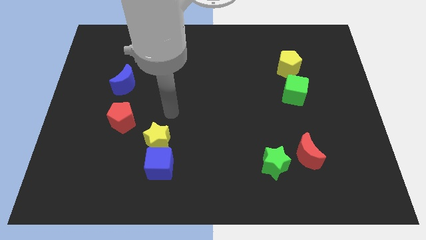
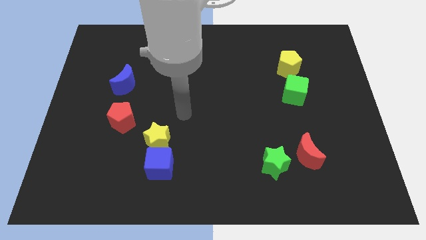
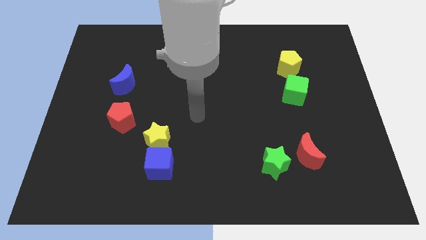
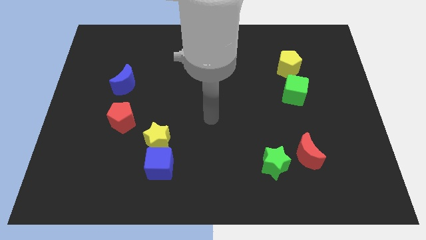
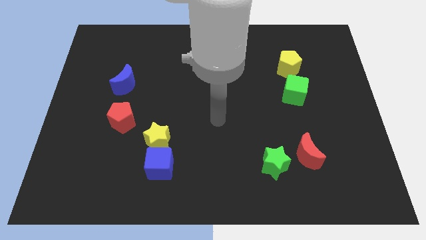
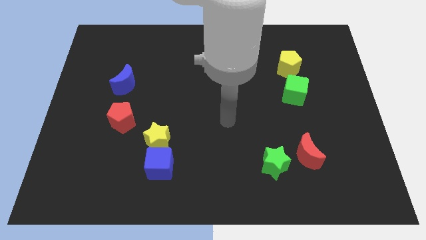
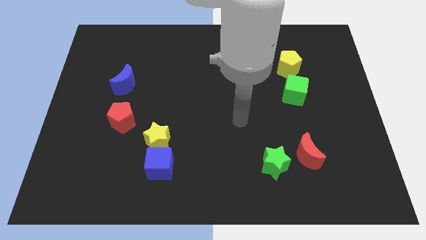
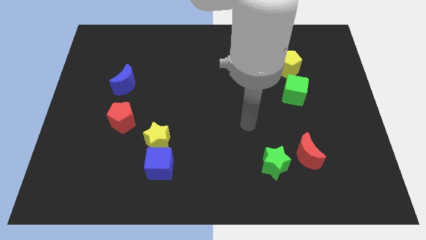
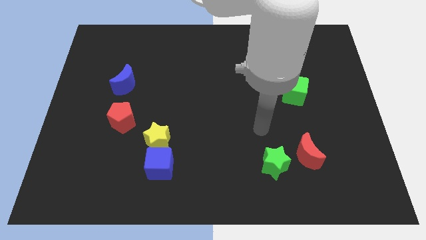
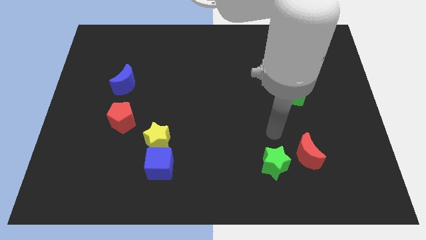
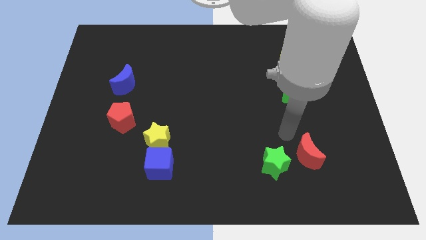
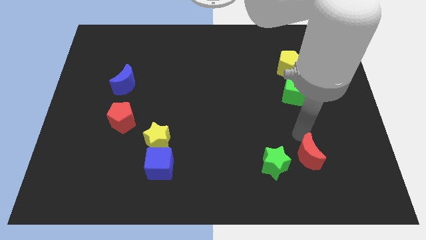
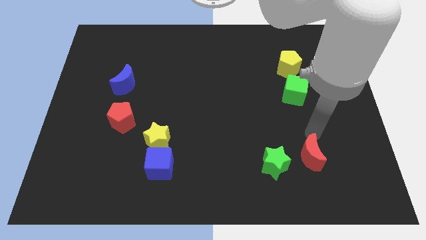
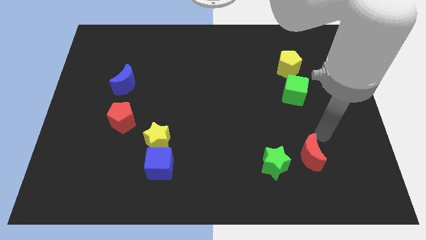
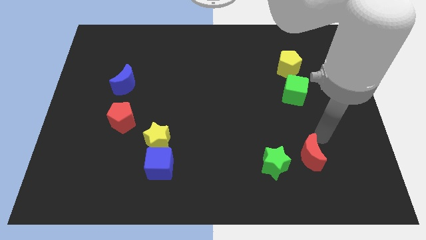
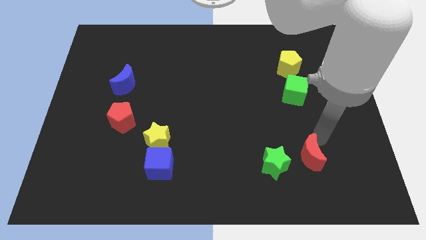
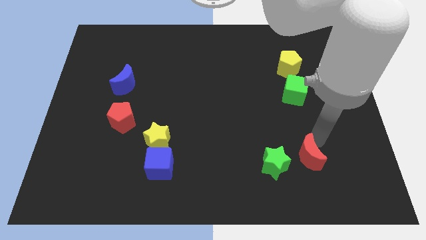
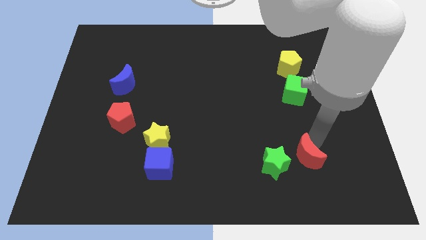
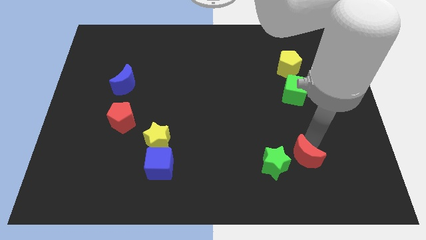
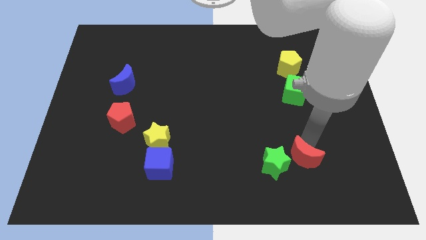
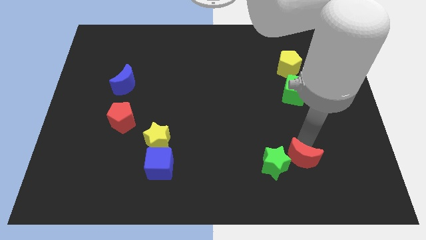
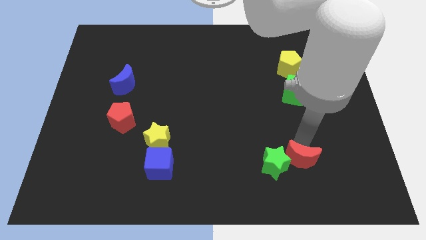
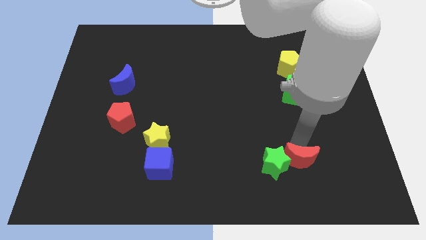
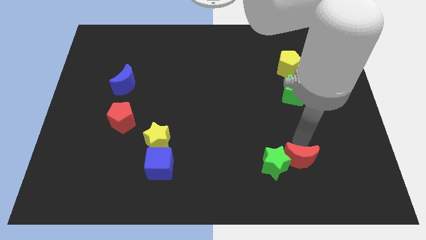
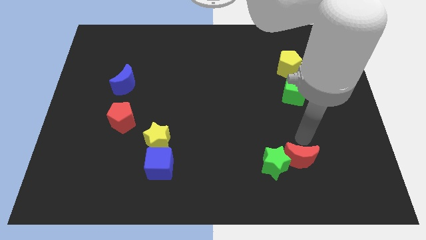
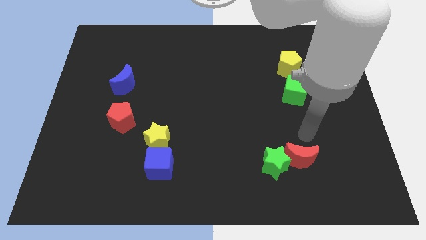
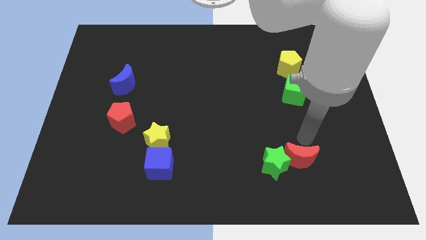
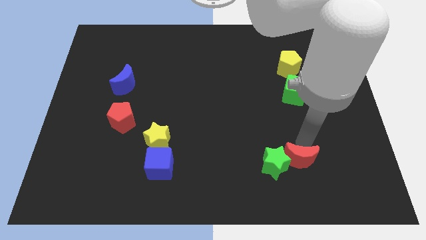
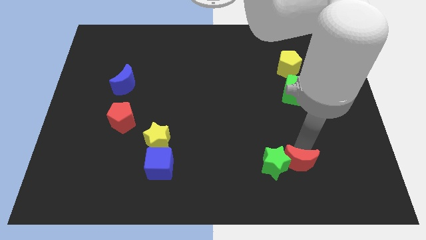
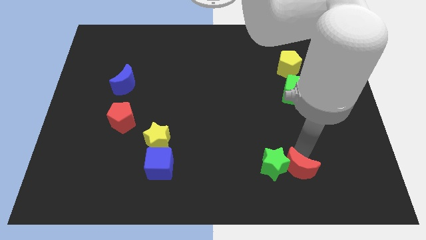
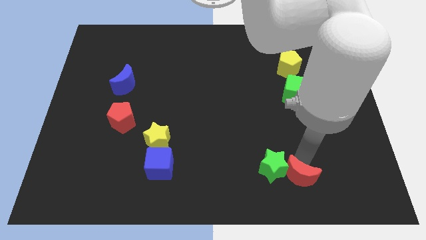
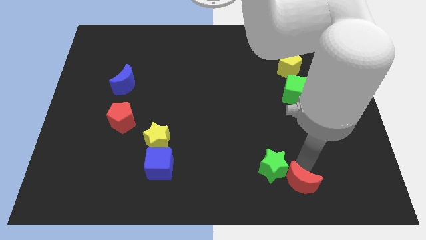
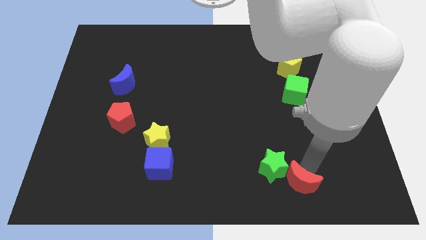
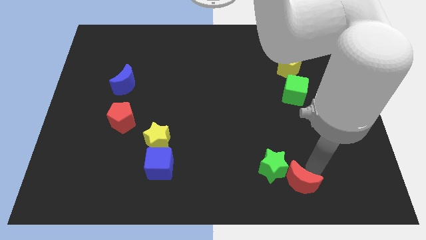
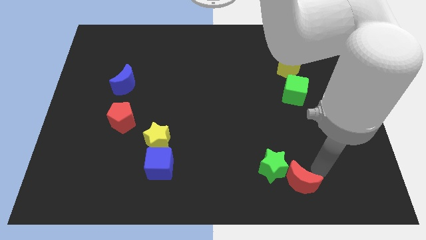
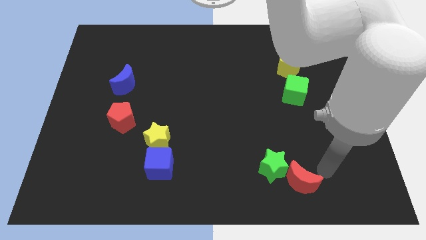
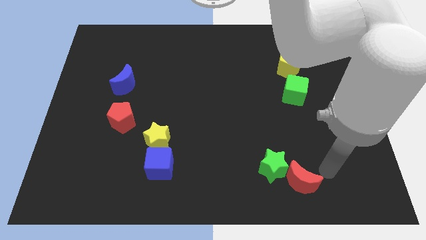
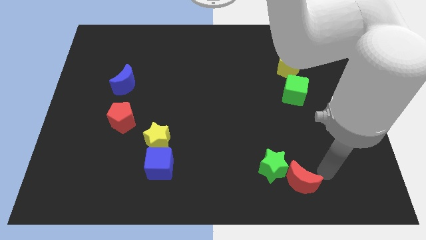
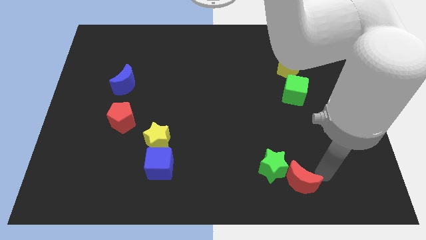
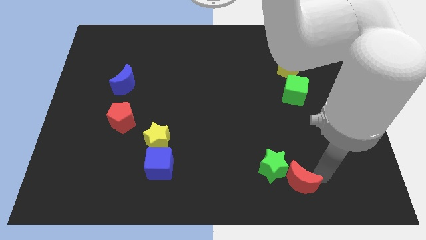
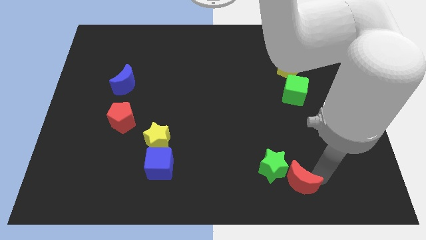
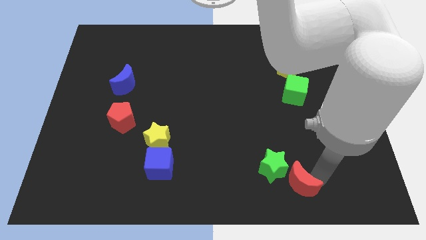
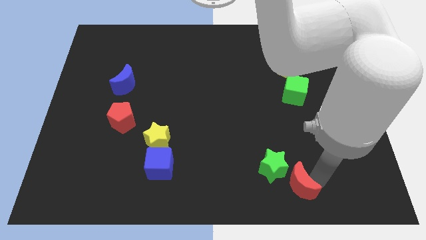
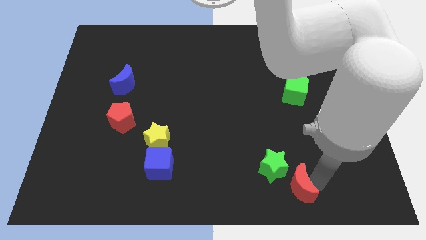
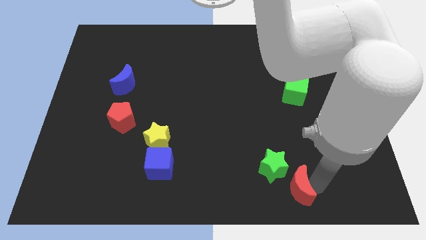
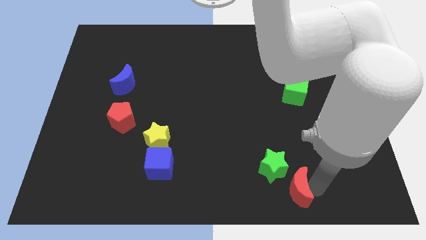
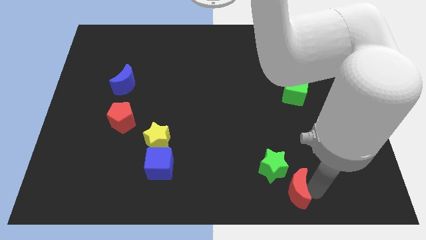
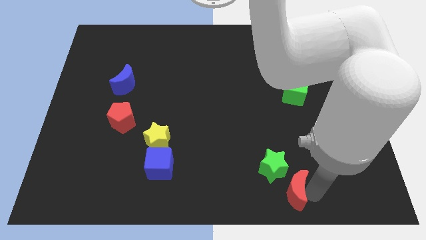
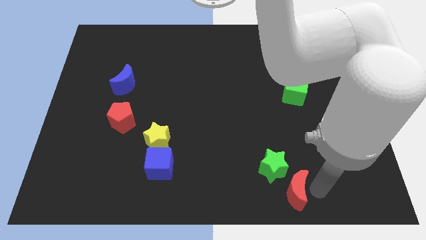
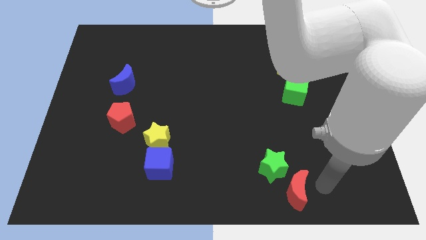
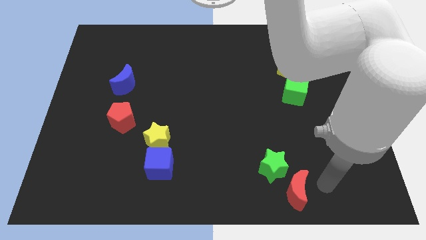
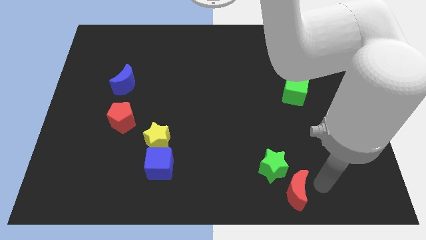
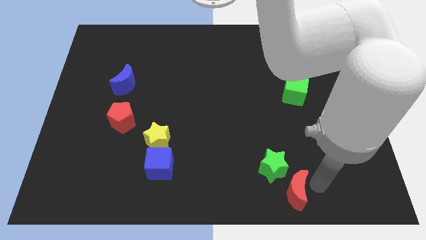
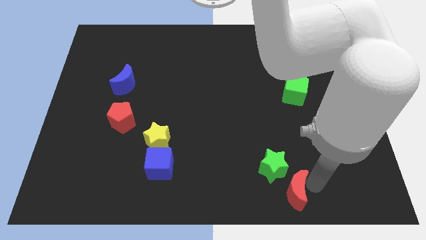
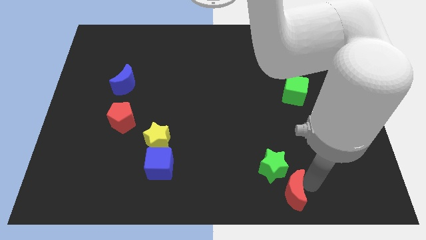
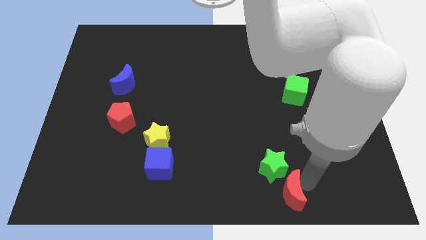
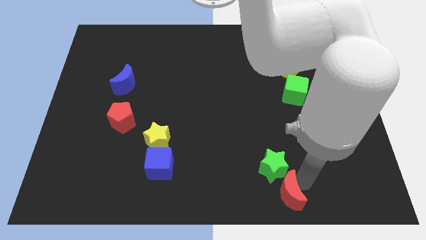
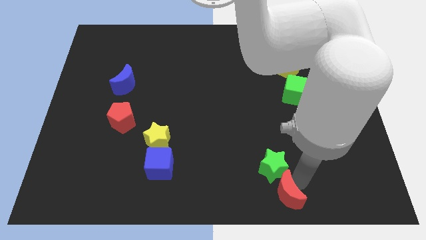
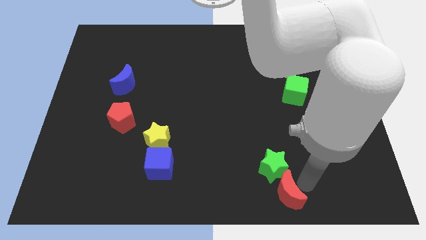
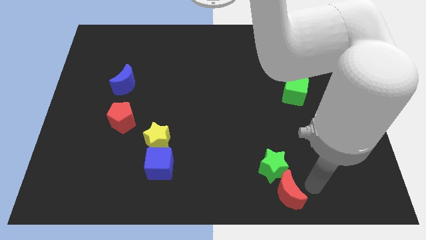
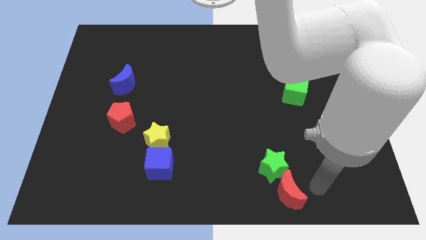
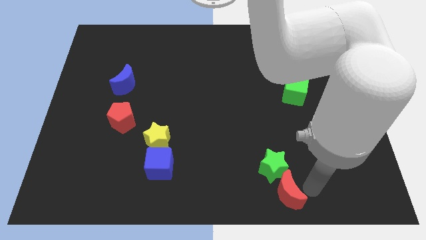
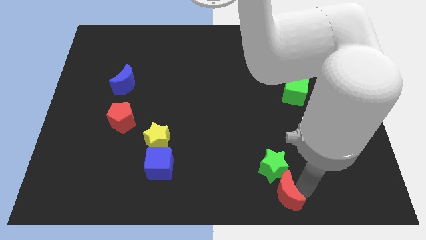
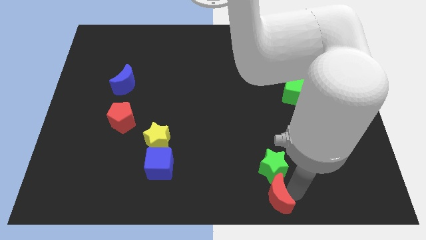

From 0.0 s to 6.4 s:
push the red moon to the bottom side
